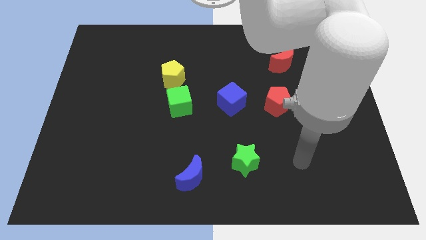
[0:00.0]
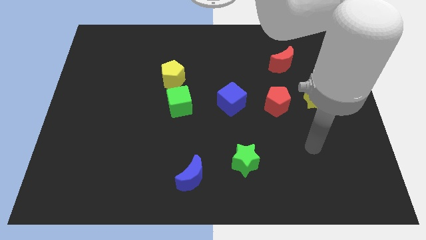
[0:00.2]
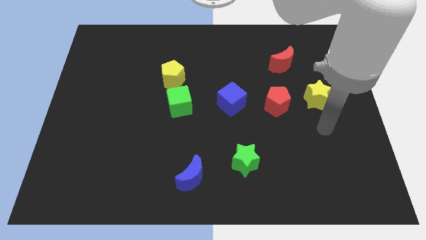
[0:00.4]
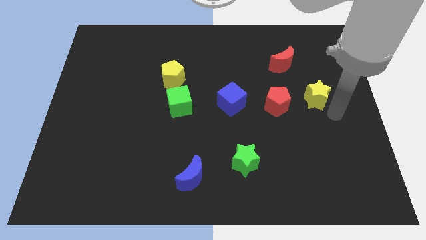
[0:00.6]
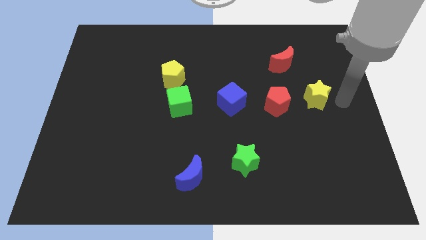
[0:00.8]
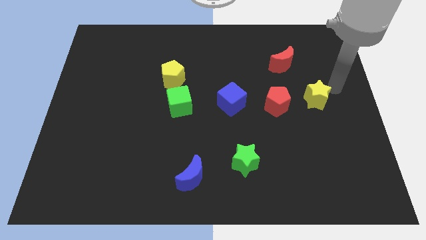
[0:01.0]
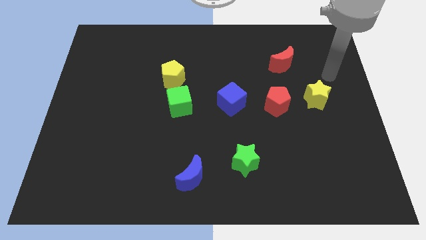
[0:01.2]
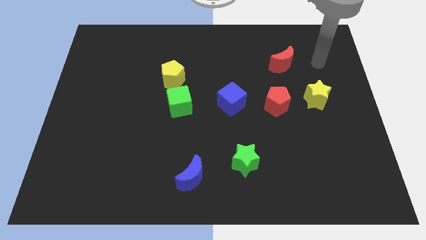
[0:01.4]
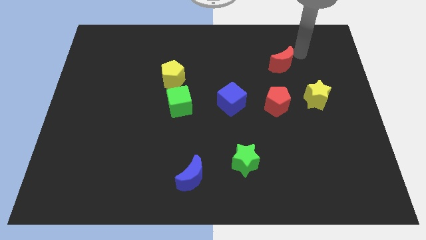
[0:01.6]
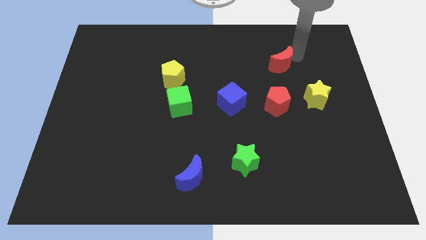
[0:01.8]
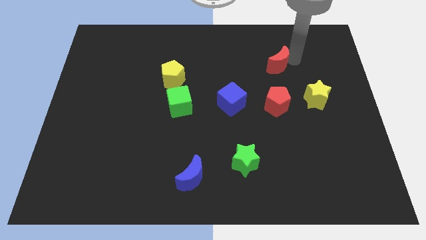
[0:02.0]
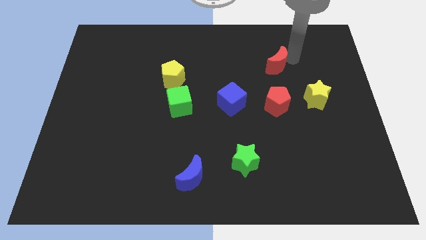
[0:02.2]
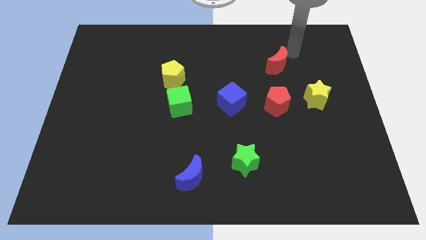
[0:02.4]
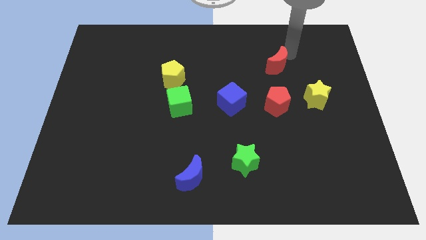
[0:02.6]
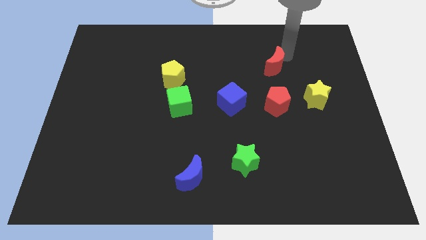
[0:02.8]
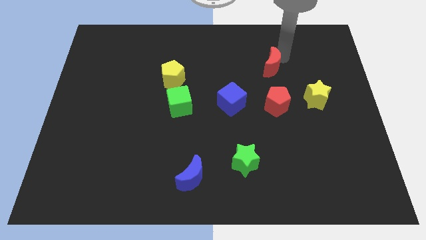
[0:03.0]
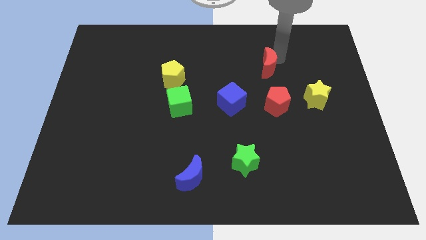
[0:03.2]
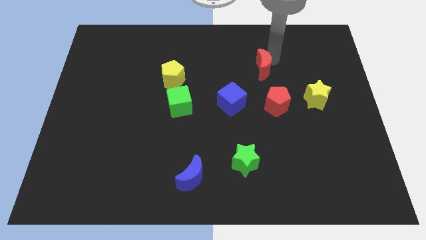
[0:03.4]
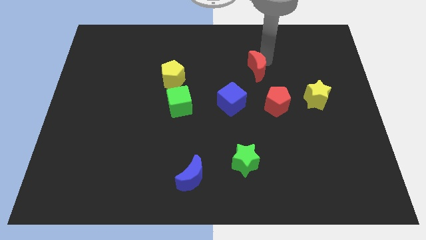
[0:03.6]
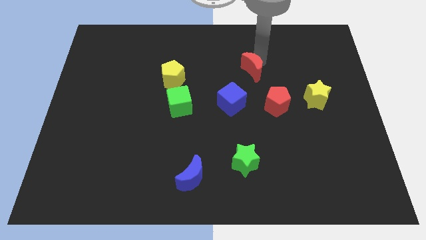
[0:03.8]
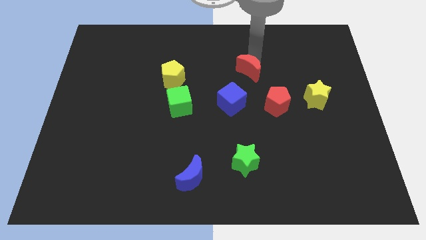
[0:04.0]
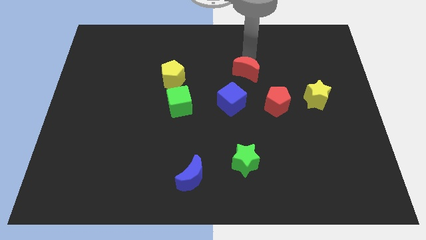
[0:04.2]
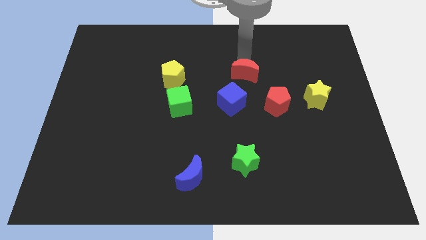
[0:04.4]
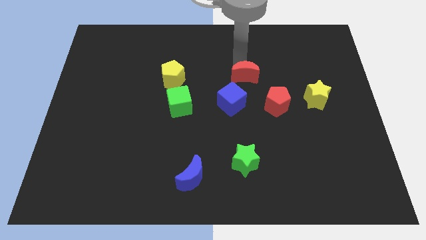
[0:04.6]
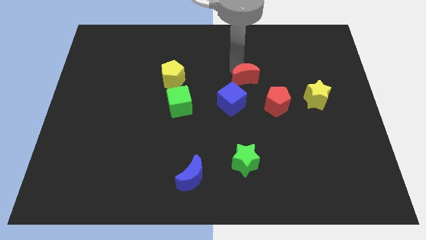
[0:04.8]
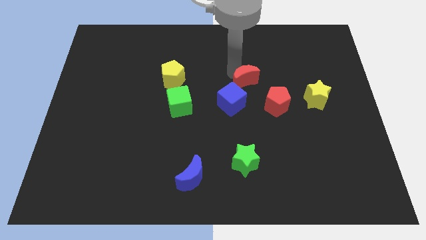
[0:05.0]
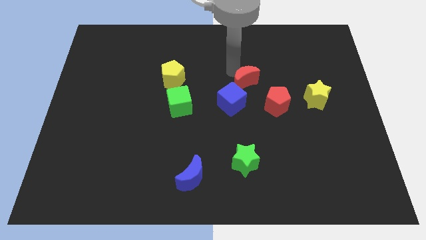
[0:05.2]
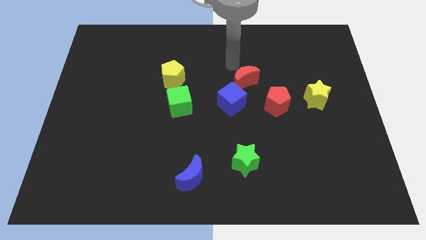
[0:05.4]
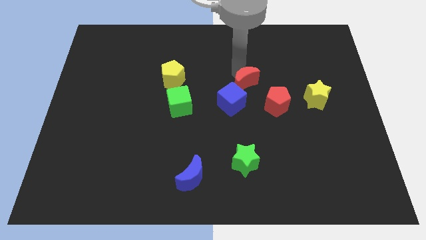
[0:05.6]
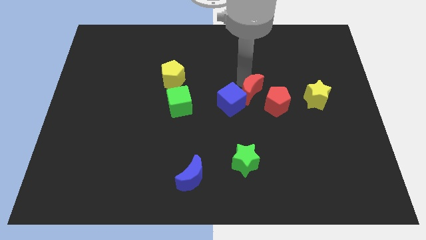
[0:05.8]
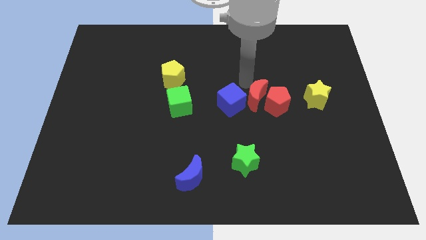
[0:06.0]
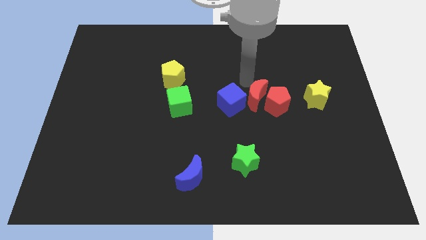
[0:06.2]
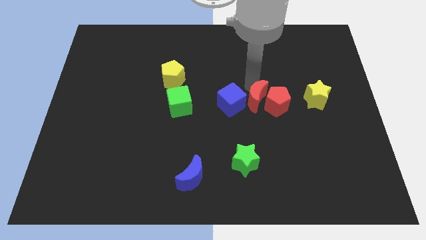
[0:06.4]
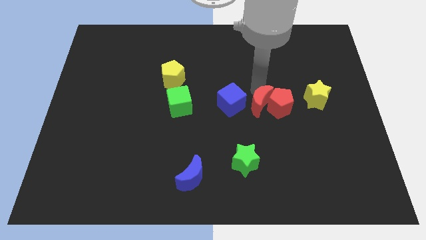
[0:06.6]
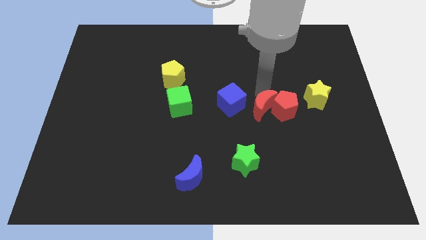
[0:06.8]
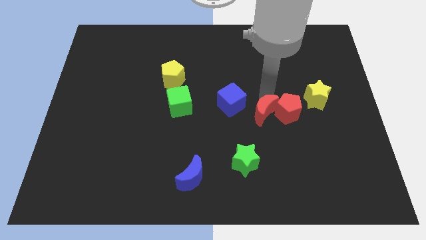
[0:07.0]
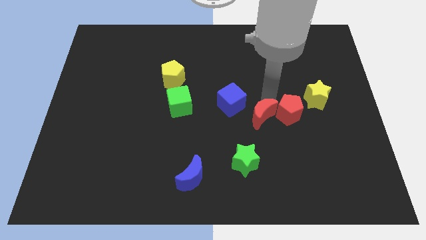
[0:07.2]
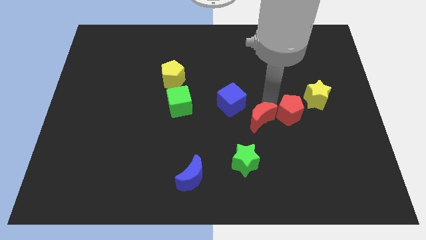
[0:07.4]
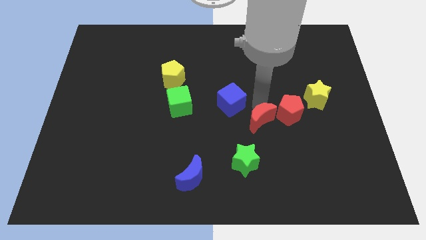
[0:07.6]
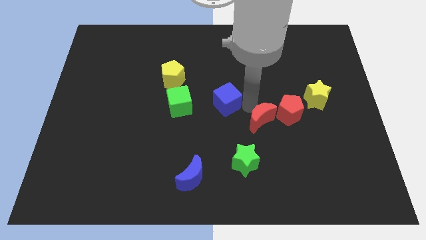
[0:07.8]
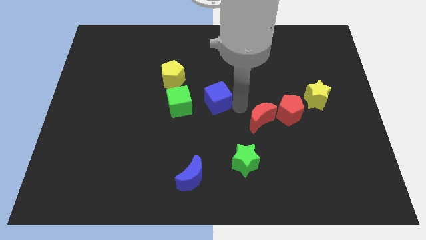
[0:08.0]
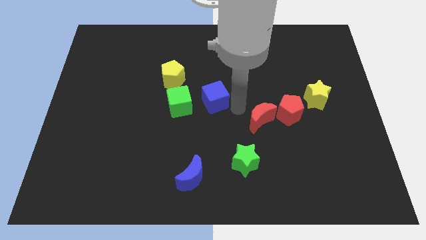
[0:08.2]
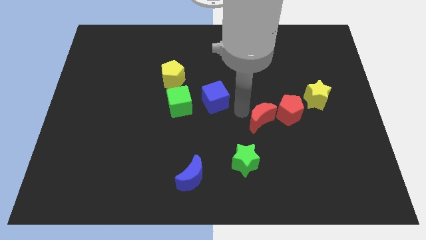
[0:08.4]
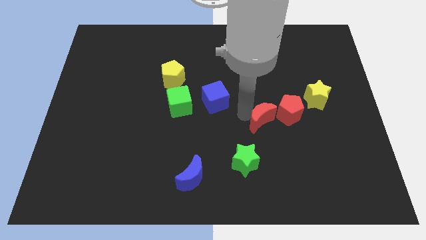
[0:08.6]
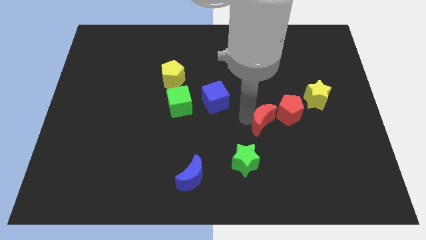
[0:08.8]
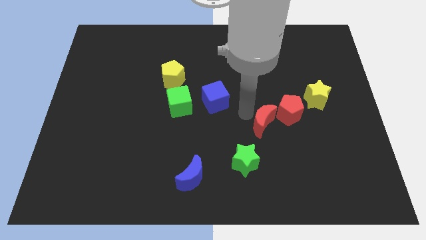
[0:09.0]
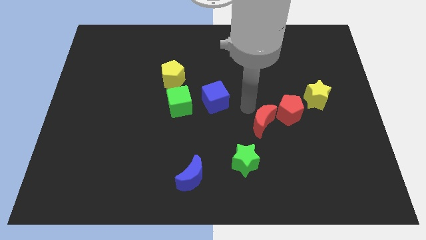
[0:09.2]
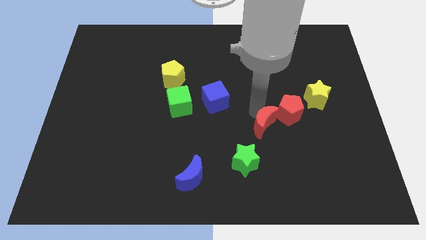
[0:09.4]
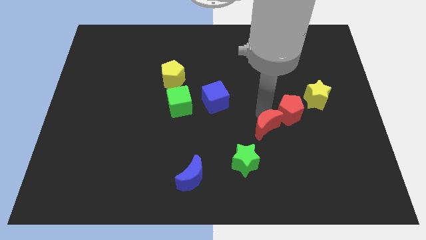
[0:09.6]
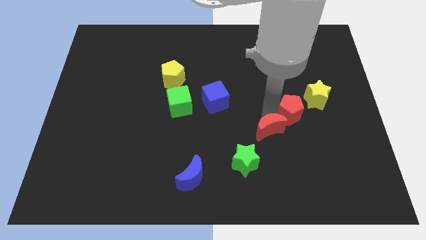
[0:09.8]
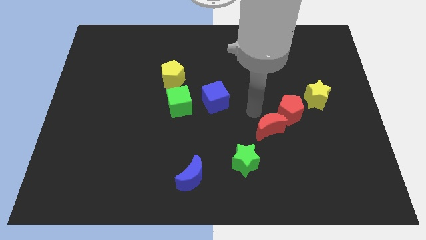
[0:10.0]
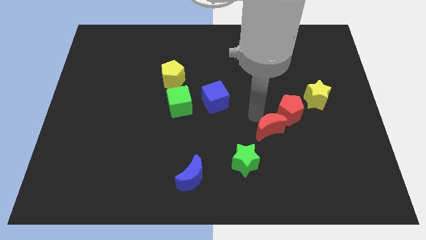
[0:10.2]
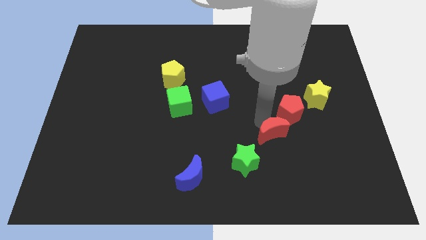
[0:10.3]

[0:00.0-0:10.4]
push the red moon downwards

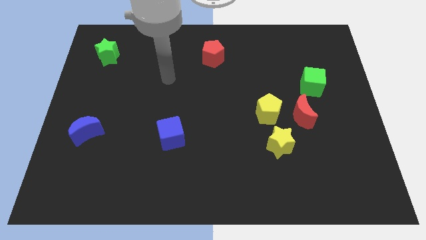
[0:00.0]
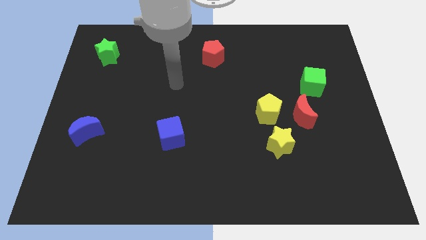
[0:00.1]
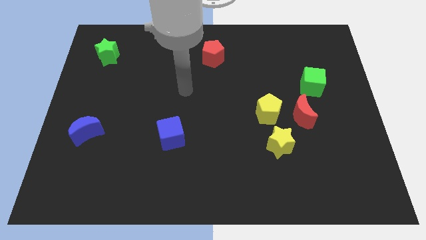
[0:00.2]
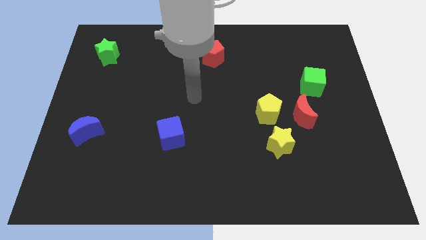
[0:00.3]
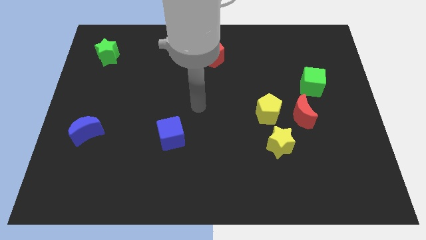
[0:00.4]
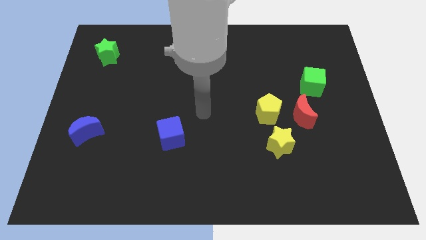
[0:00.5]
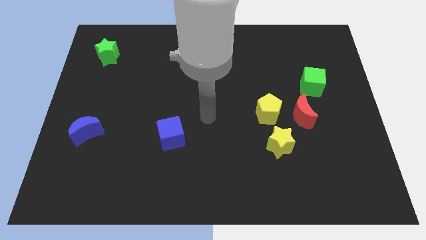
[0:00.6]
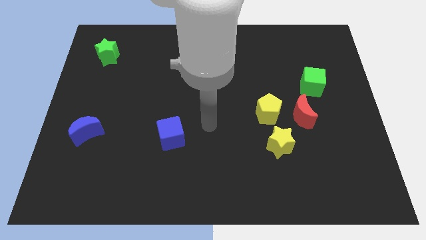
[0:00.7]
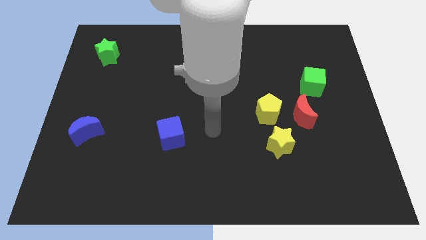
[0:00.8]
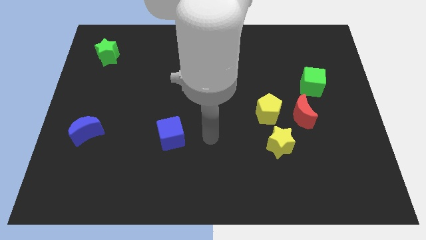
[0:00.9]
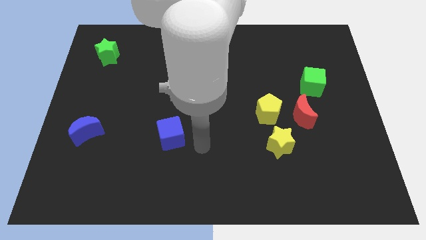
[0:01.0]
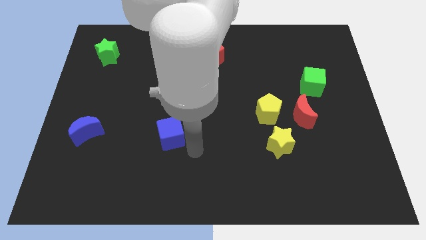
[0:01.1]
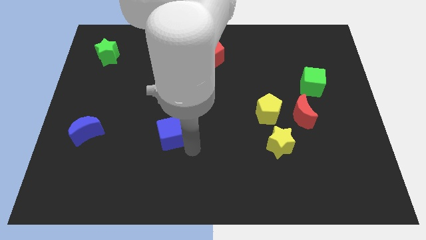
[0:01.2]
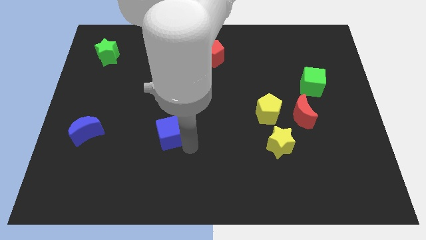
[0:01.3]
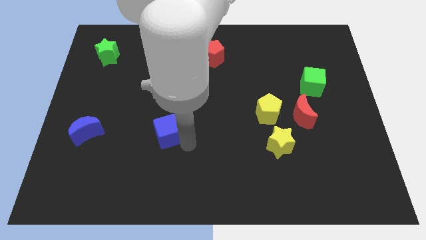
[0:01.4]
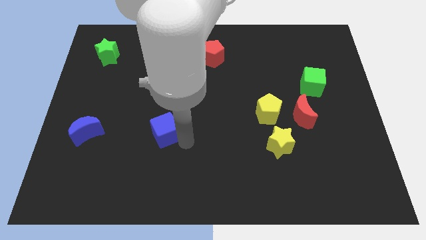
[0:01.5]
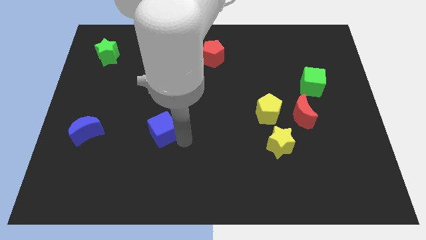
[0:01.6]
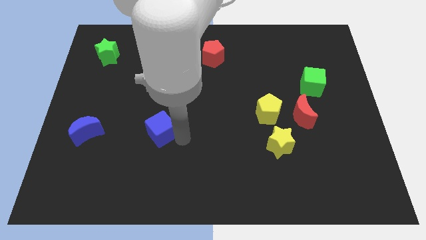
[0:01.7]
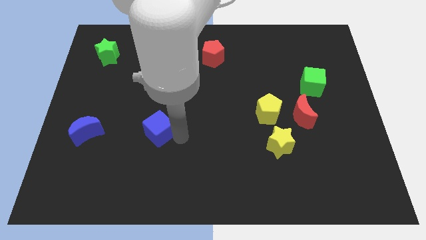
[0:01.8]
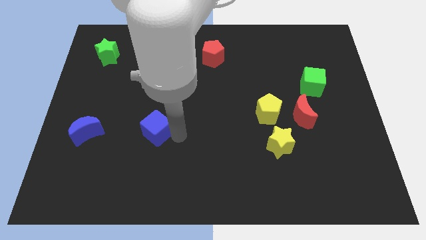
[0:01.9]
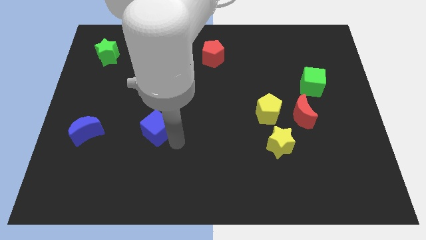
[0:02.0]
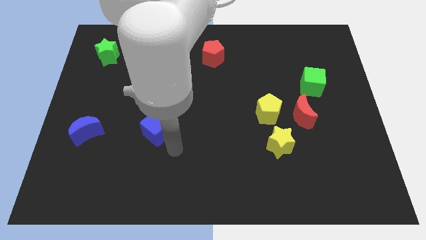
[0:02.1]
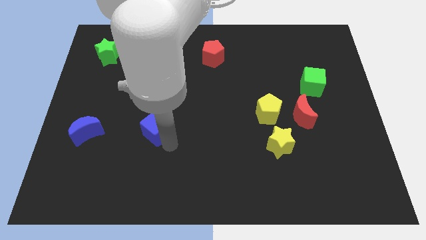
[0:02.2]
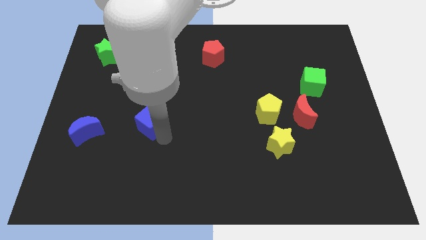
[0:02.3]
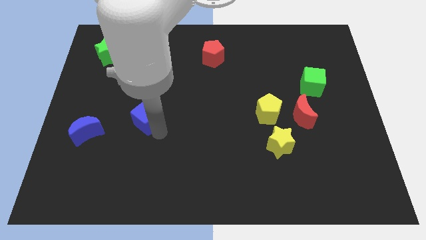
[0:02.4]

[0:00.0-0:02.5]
slide the blue cube somewhat upwards and then to the left

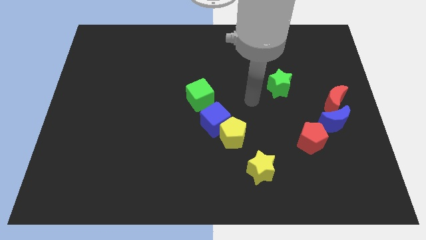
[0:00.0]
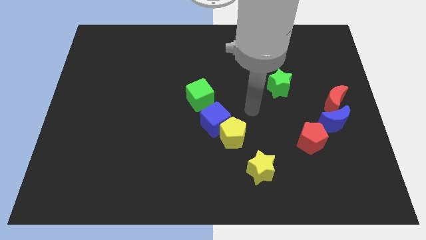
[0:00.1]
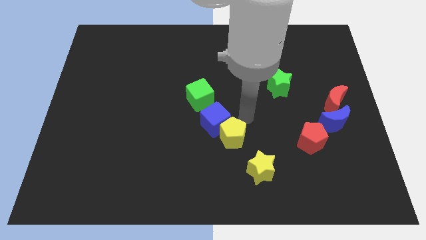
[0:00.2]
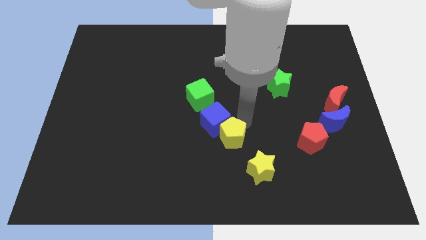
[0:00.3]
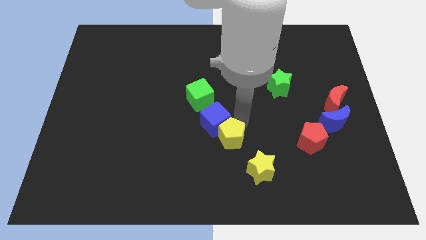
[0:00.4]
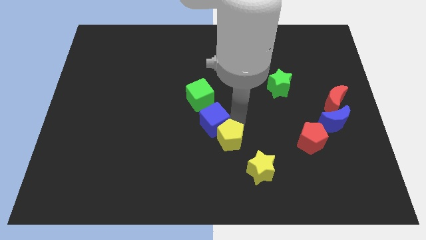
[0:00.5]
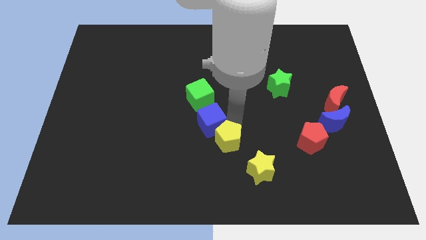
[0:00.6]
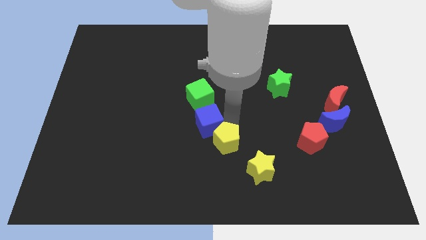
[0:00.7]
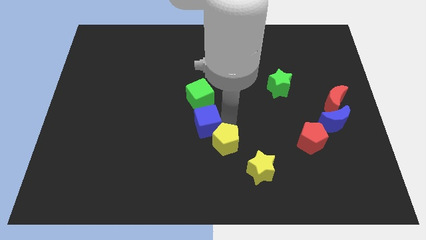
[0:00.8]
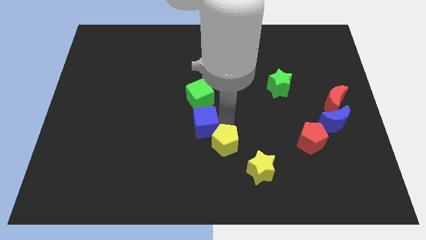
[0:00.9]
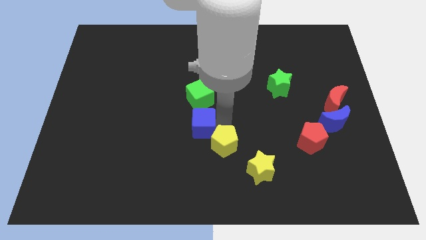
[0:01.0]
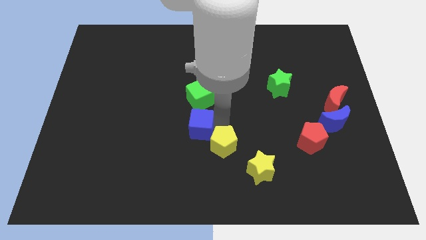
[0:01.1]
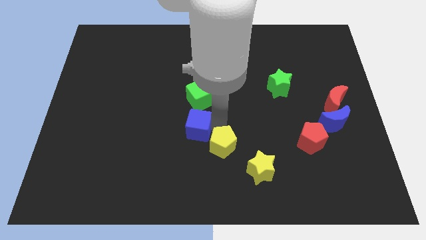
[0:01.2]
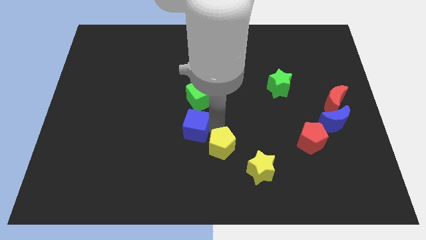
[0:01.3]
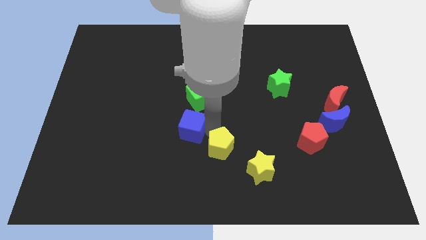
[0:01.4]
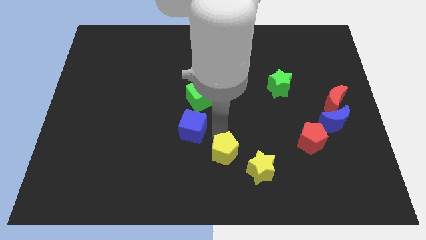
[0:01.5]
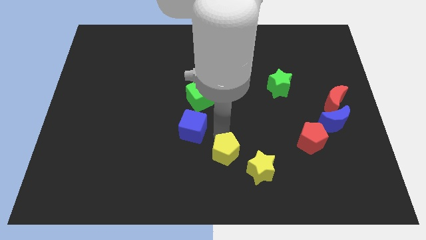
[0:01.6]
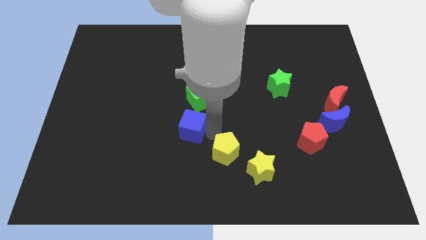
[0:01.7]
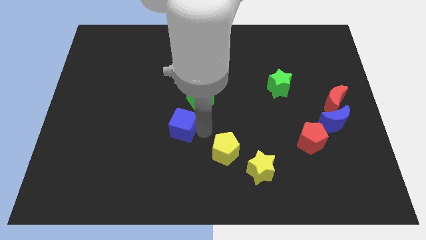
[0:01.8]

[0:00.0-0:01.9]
push the blue cube somewhat left
